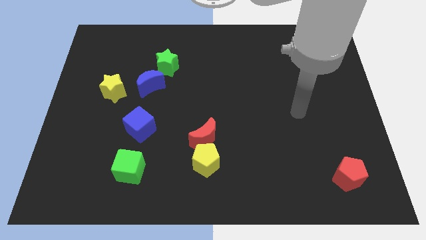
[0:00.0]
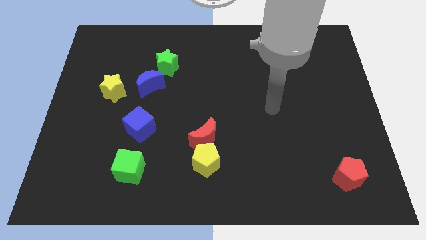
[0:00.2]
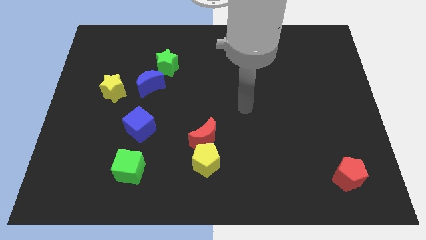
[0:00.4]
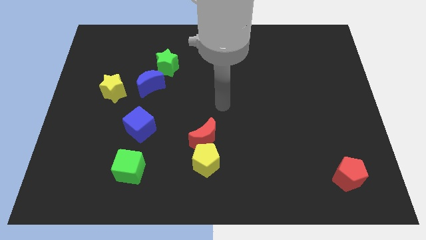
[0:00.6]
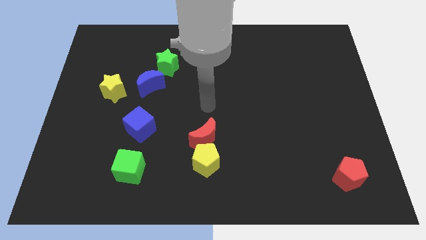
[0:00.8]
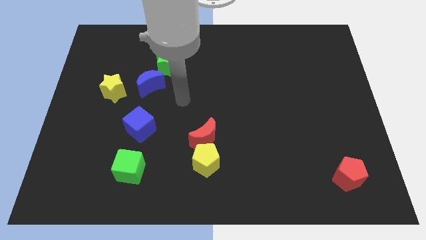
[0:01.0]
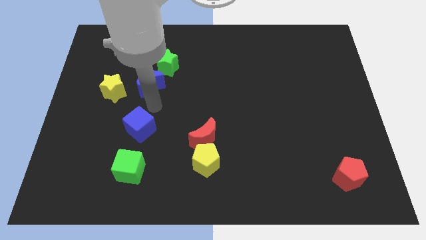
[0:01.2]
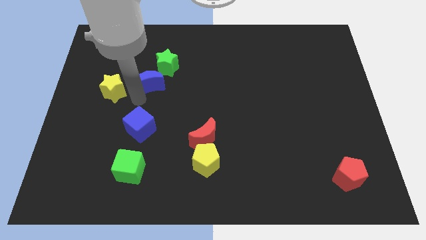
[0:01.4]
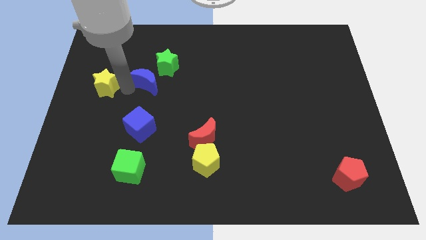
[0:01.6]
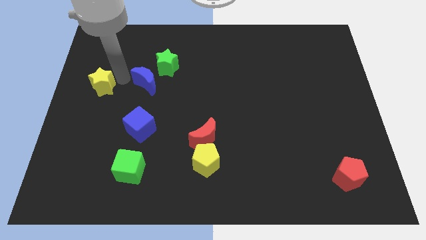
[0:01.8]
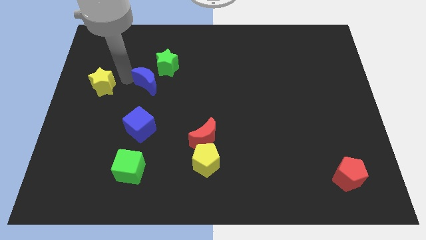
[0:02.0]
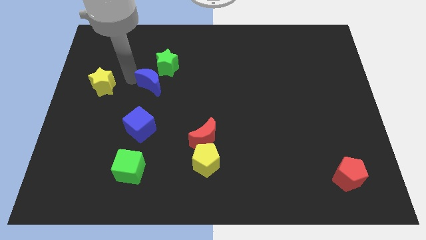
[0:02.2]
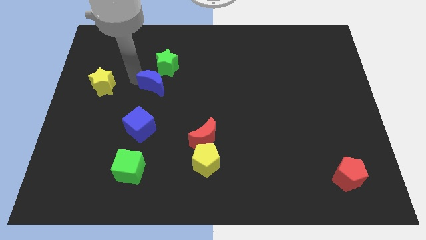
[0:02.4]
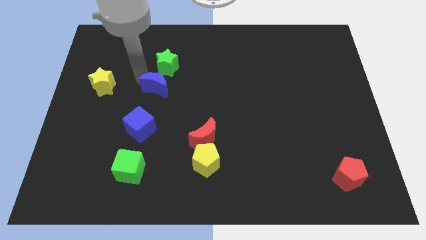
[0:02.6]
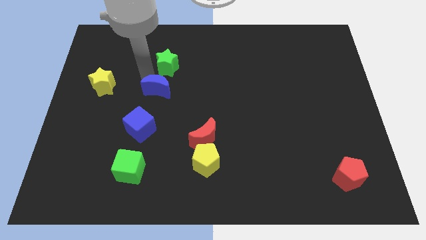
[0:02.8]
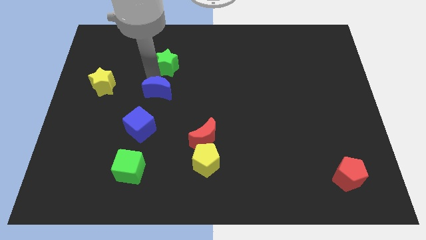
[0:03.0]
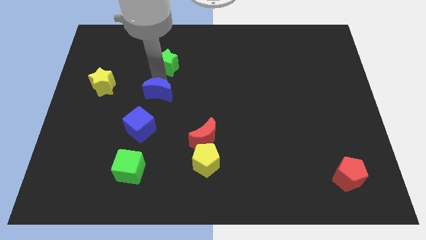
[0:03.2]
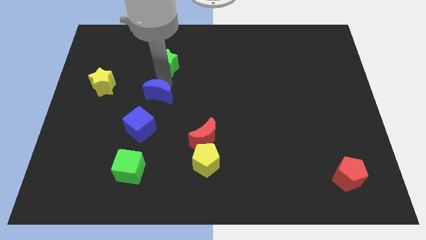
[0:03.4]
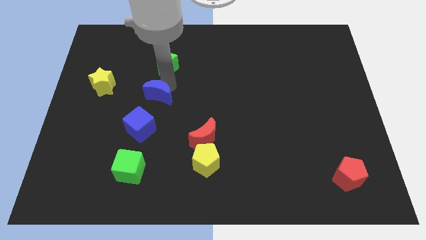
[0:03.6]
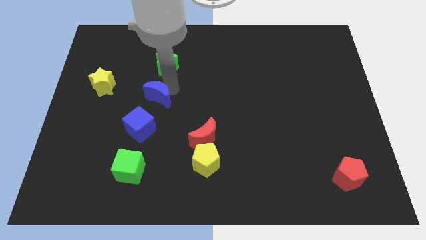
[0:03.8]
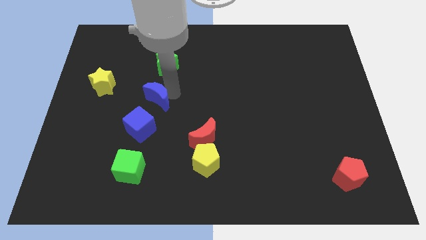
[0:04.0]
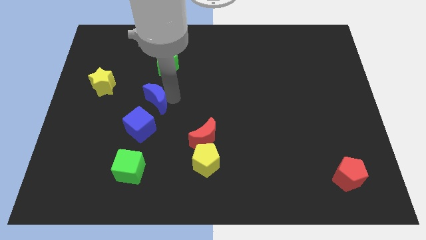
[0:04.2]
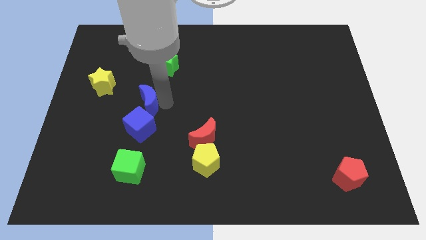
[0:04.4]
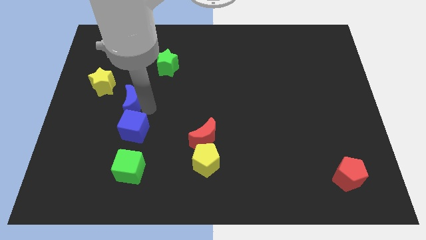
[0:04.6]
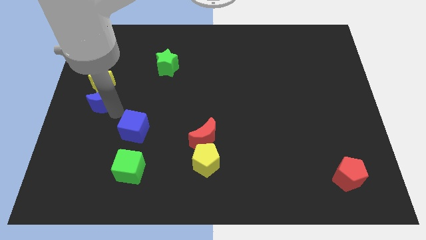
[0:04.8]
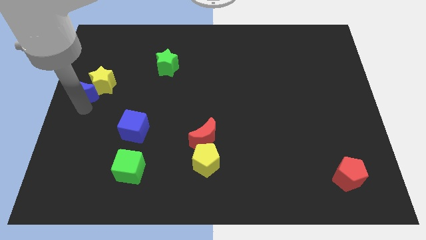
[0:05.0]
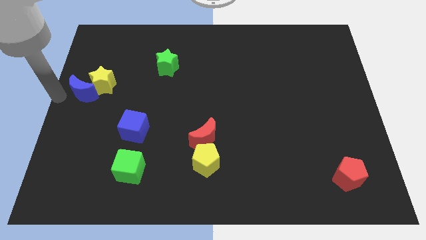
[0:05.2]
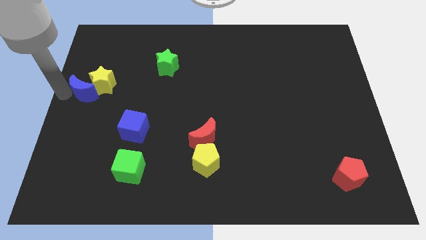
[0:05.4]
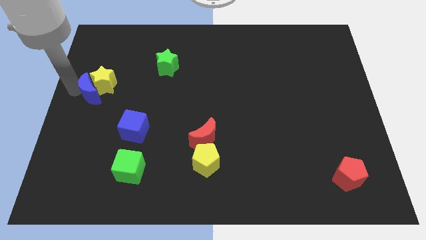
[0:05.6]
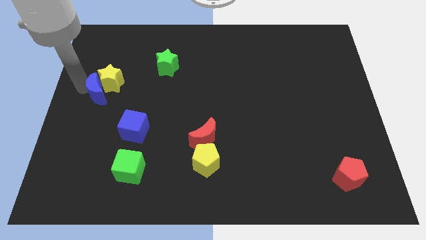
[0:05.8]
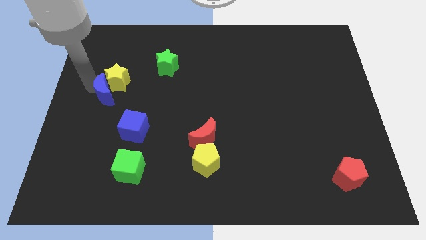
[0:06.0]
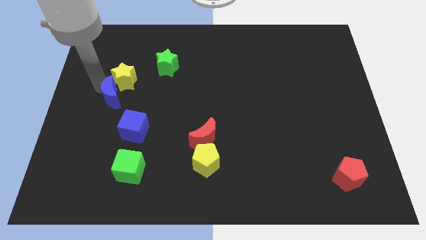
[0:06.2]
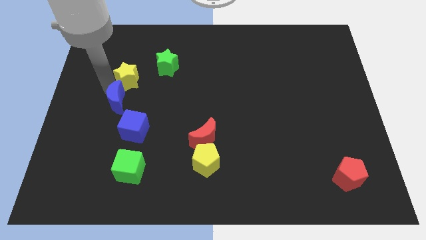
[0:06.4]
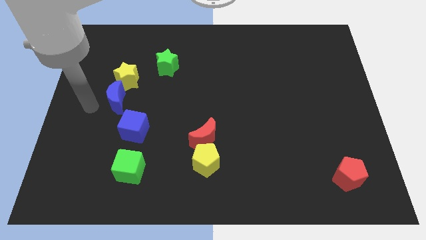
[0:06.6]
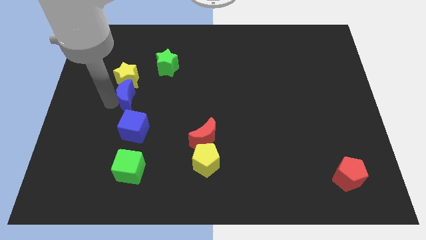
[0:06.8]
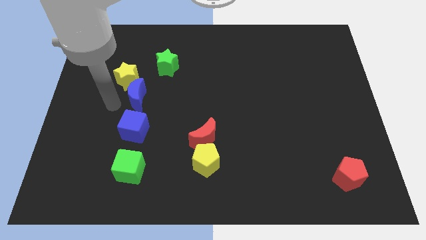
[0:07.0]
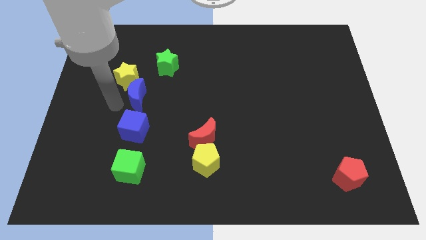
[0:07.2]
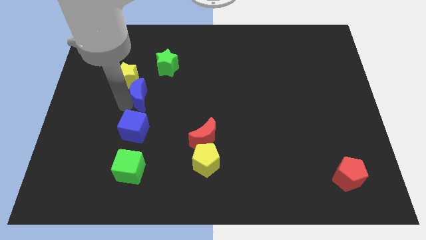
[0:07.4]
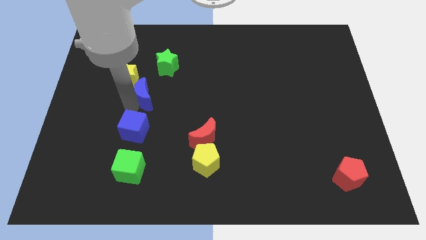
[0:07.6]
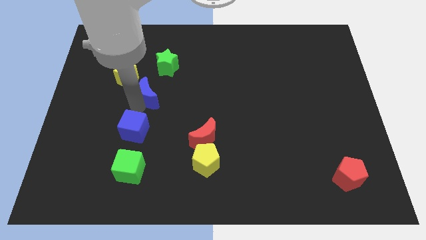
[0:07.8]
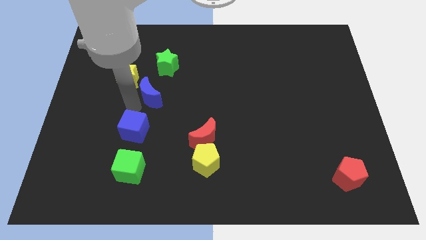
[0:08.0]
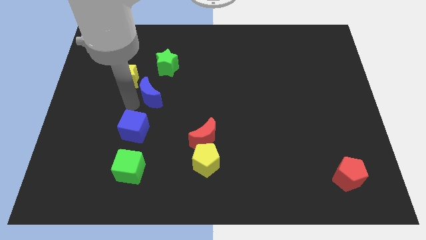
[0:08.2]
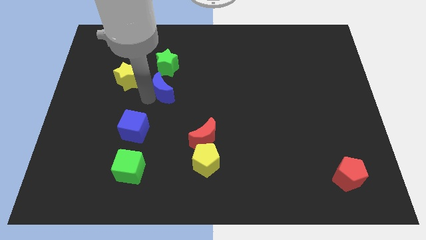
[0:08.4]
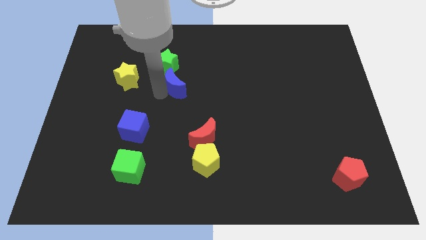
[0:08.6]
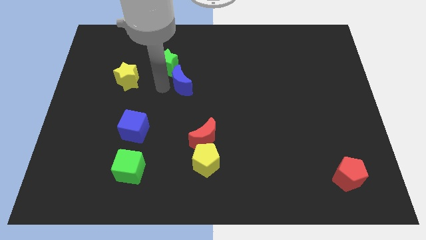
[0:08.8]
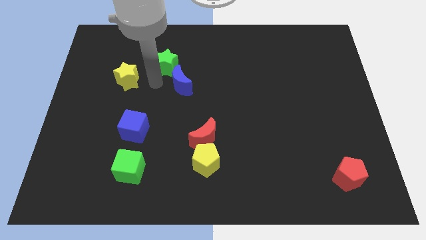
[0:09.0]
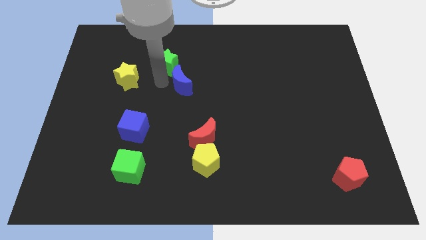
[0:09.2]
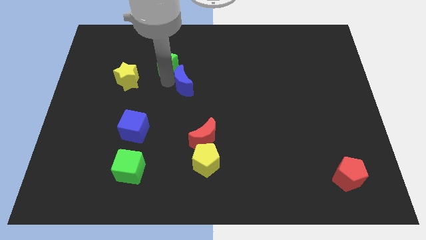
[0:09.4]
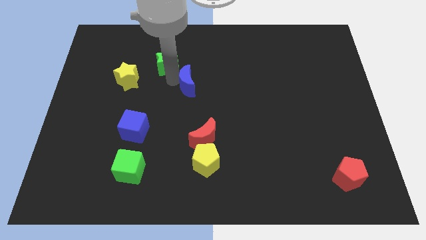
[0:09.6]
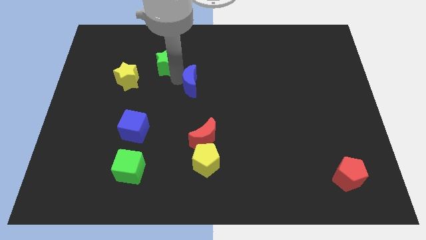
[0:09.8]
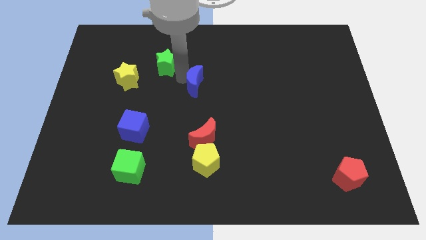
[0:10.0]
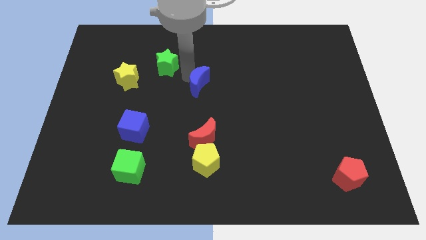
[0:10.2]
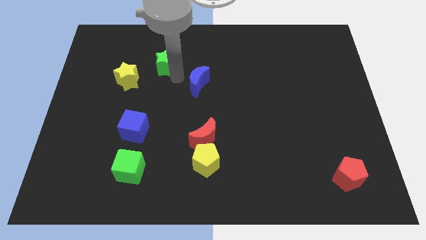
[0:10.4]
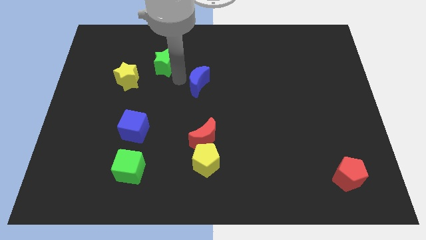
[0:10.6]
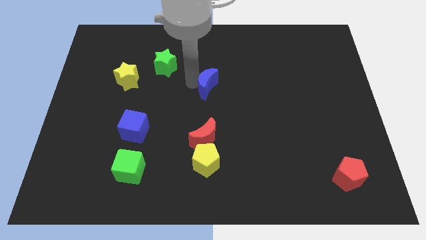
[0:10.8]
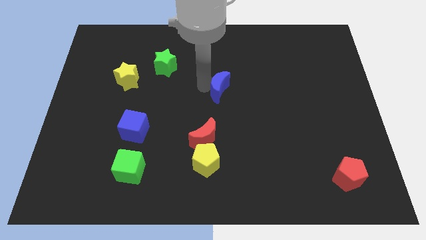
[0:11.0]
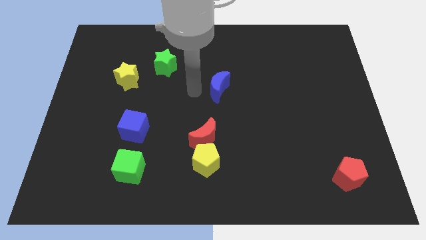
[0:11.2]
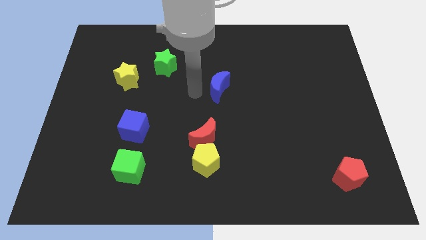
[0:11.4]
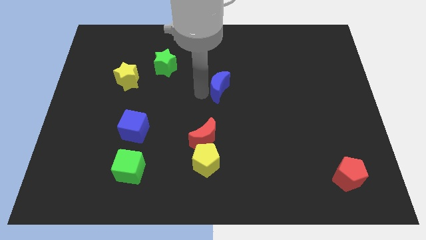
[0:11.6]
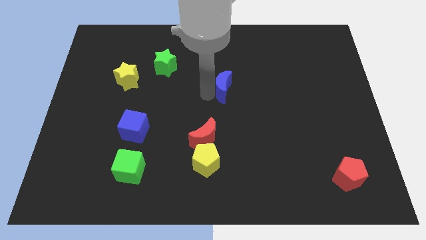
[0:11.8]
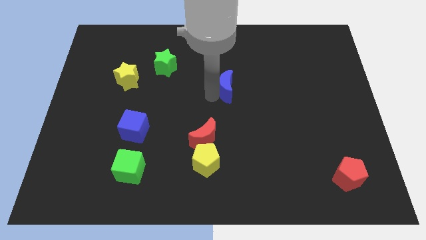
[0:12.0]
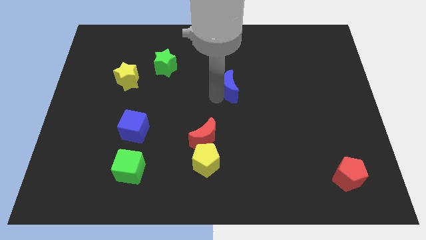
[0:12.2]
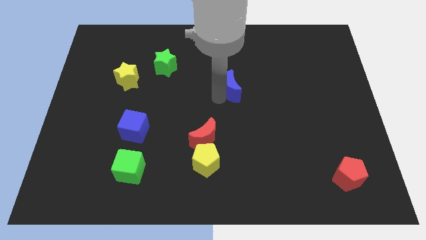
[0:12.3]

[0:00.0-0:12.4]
slide the blue moon to the right

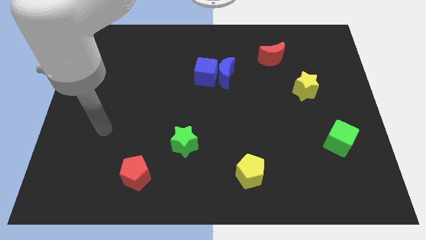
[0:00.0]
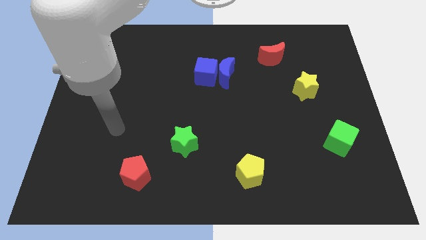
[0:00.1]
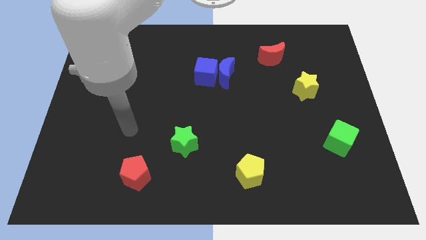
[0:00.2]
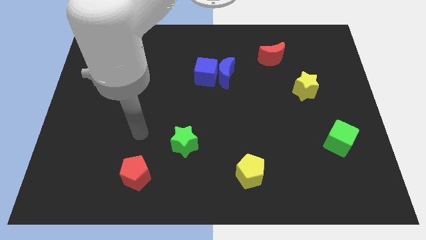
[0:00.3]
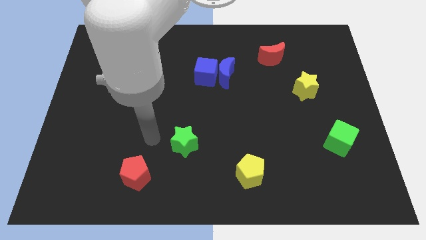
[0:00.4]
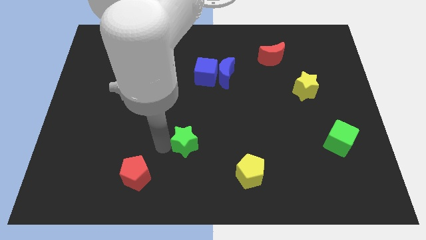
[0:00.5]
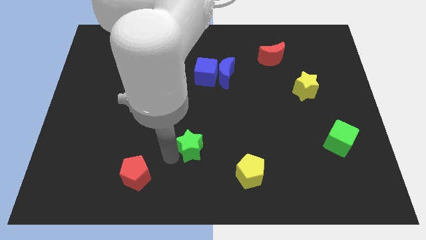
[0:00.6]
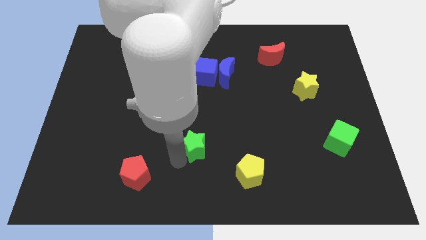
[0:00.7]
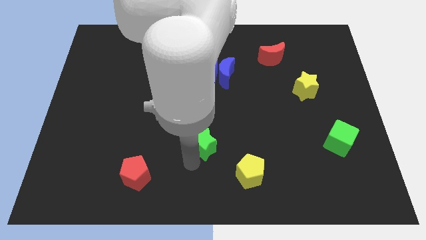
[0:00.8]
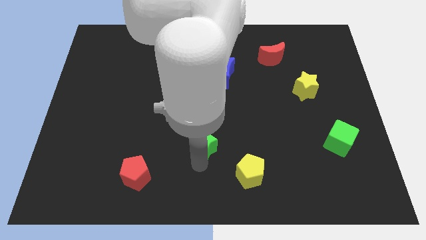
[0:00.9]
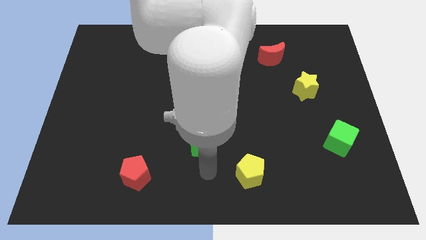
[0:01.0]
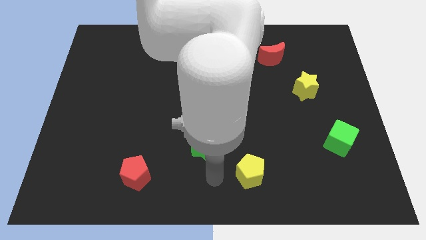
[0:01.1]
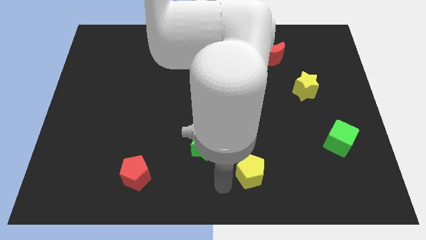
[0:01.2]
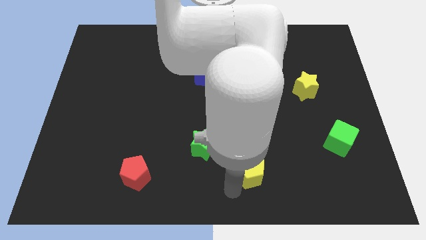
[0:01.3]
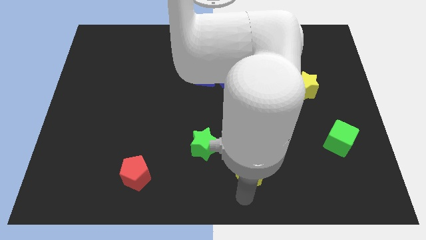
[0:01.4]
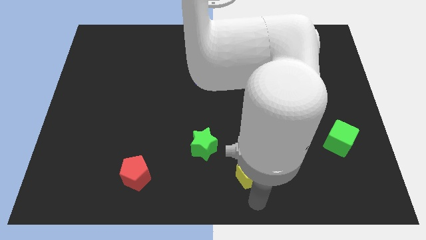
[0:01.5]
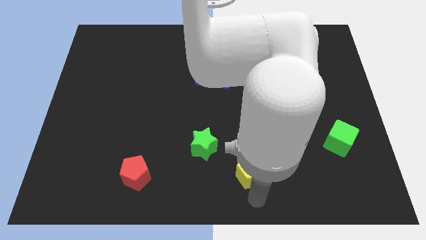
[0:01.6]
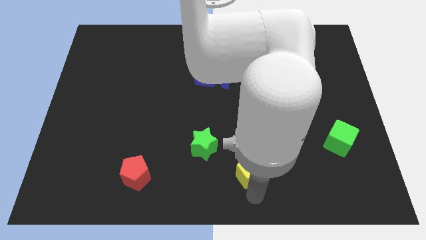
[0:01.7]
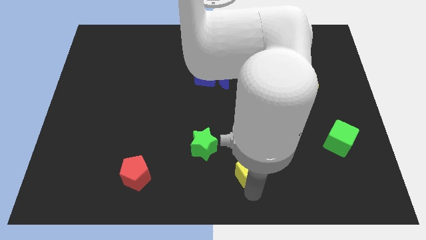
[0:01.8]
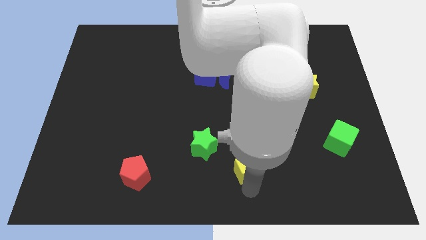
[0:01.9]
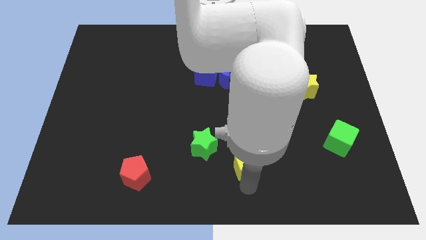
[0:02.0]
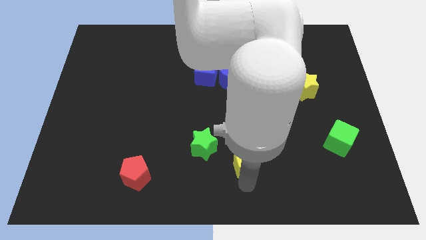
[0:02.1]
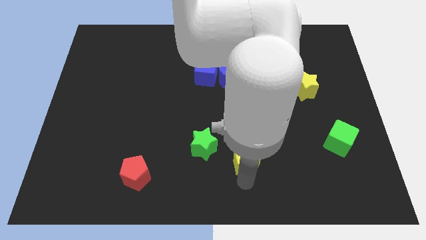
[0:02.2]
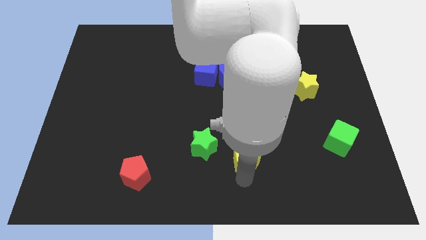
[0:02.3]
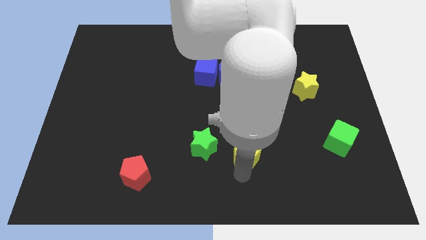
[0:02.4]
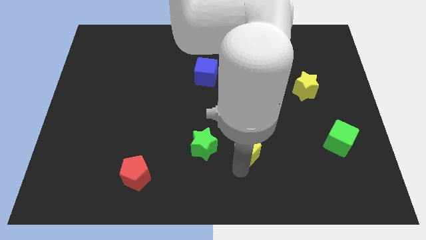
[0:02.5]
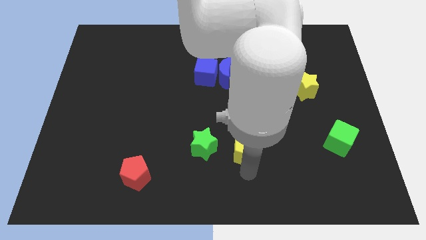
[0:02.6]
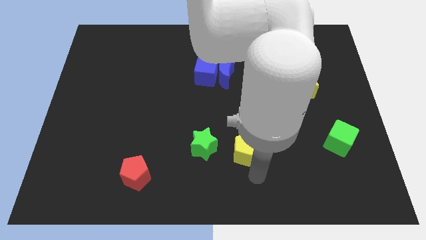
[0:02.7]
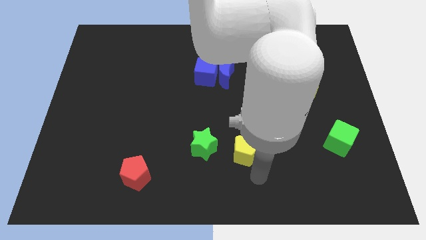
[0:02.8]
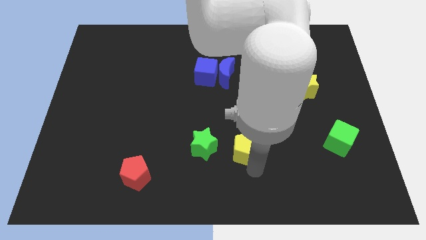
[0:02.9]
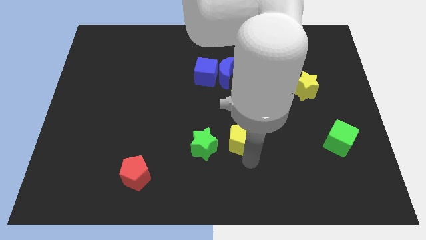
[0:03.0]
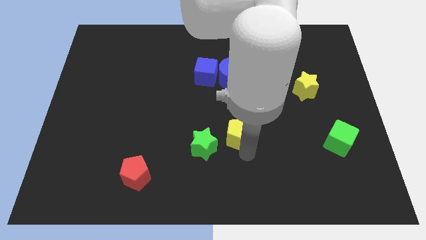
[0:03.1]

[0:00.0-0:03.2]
slightly push the yellow pentagon diagonally upwards and to the left
